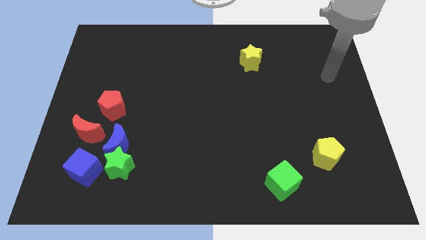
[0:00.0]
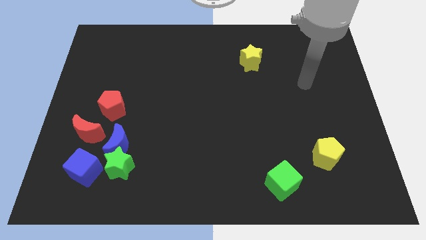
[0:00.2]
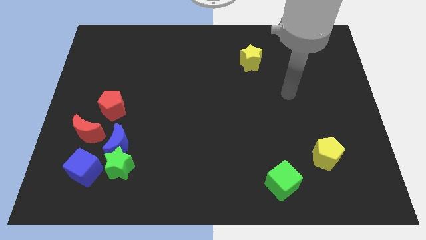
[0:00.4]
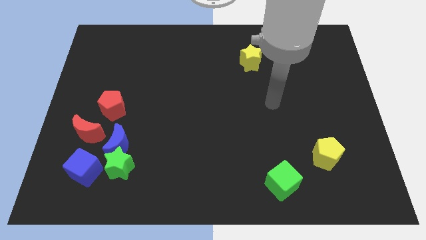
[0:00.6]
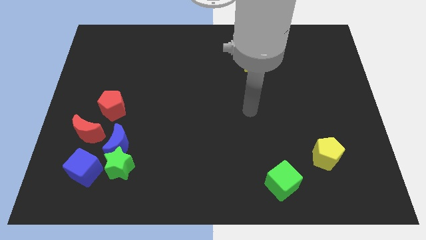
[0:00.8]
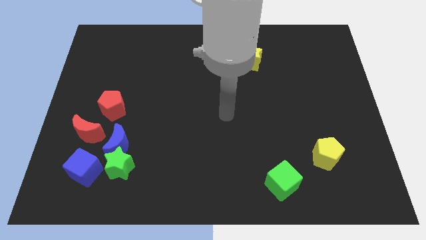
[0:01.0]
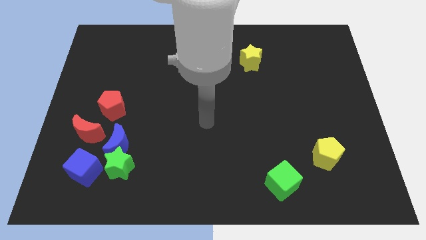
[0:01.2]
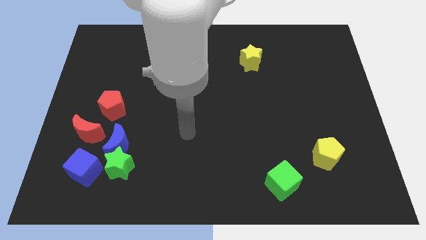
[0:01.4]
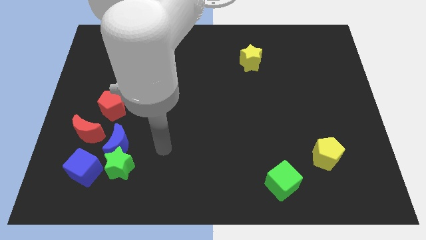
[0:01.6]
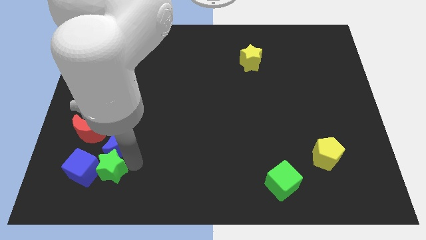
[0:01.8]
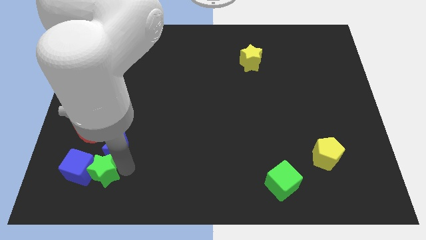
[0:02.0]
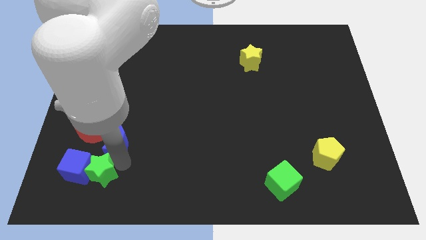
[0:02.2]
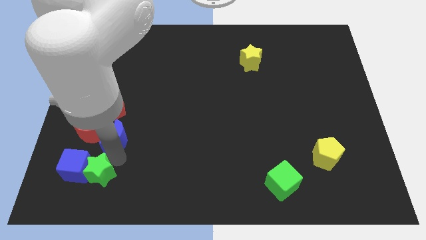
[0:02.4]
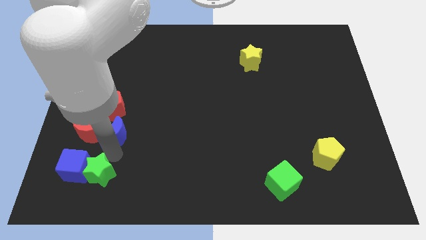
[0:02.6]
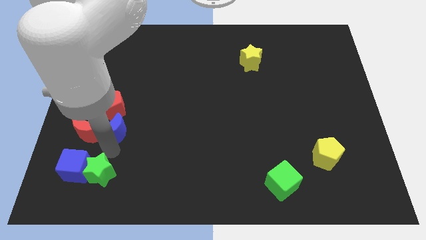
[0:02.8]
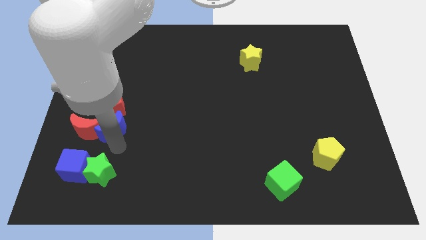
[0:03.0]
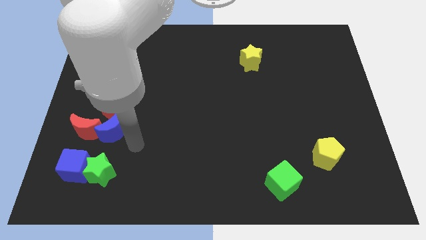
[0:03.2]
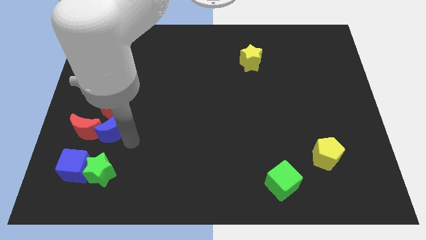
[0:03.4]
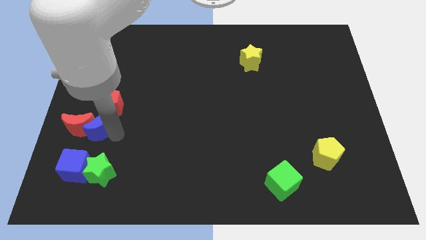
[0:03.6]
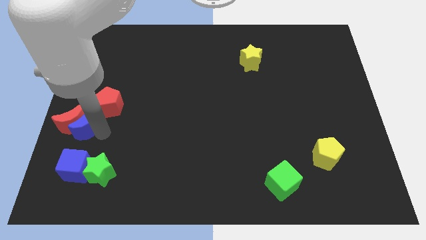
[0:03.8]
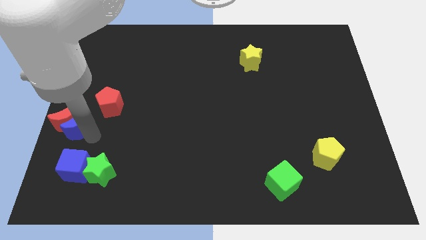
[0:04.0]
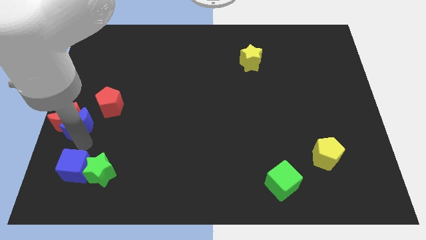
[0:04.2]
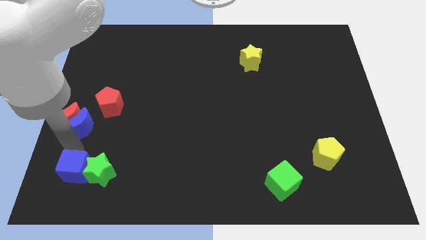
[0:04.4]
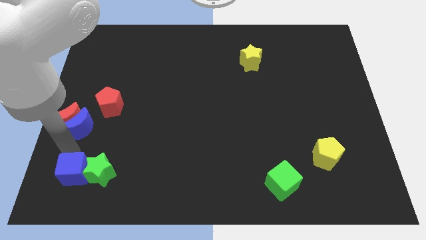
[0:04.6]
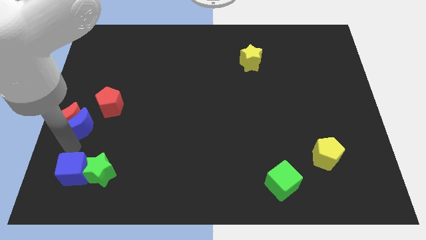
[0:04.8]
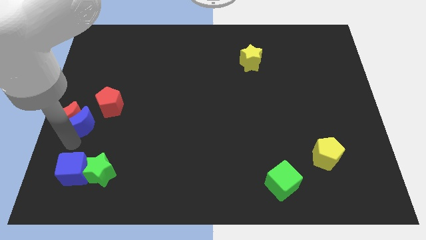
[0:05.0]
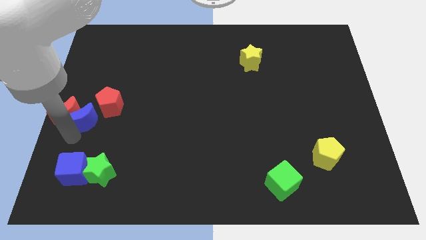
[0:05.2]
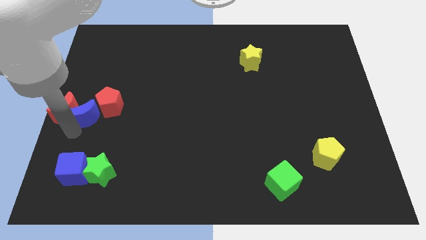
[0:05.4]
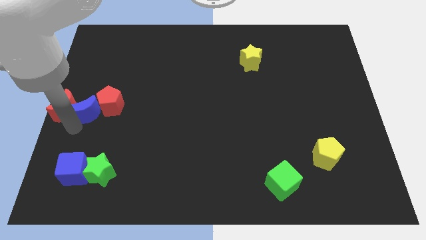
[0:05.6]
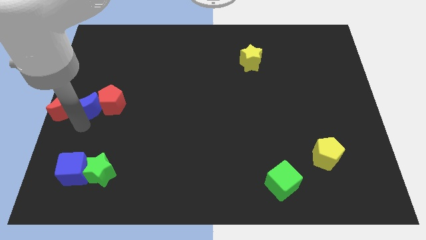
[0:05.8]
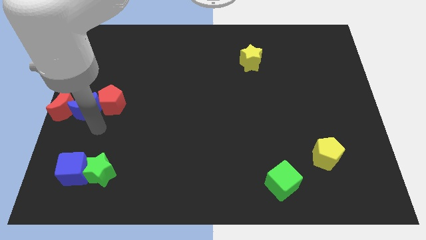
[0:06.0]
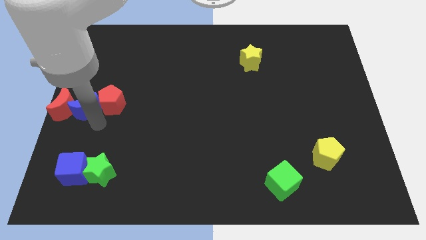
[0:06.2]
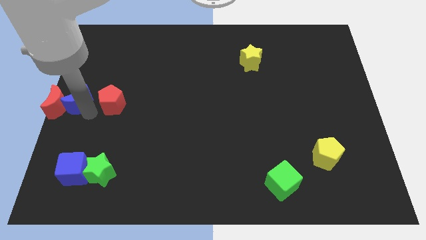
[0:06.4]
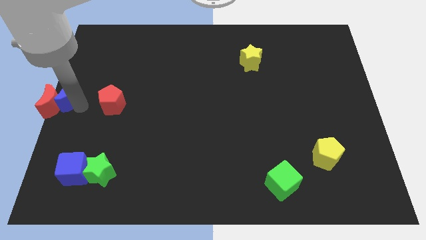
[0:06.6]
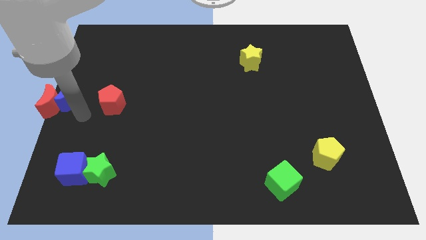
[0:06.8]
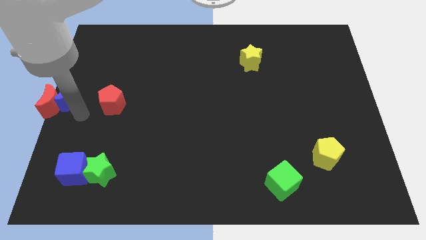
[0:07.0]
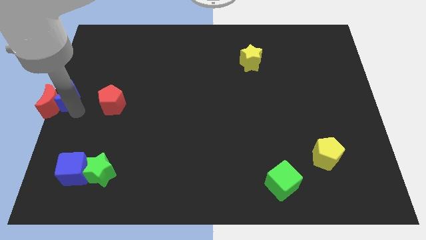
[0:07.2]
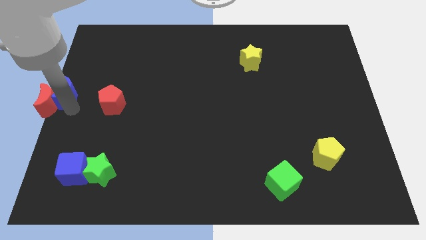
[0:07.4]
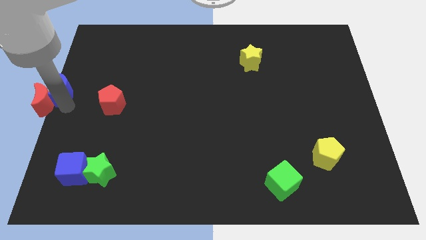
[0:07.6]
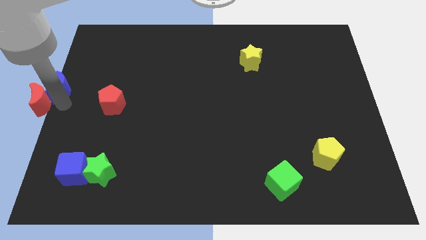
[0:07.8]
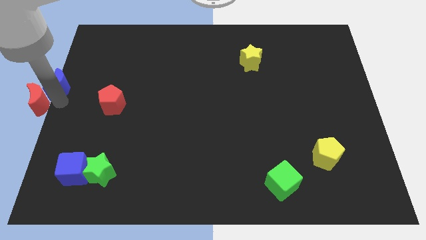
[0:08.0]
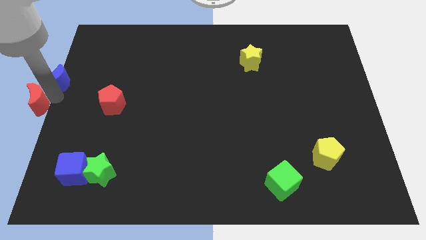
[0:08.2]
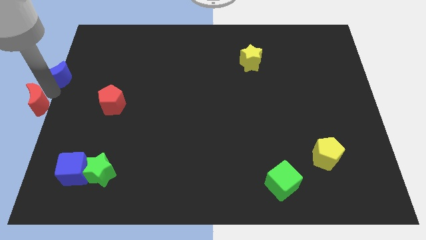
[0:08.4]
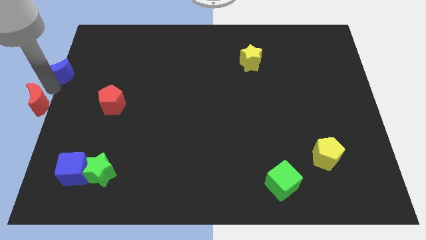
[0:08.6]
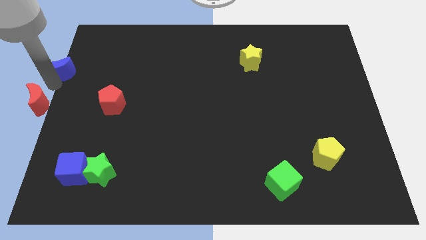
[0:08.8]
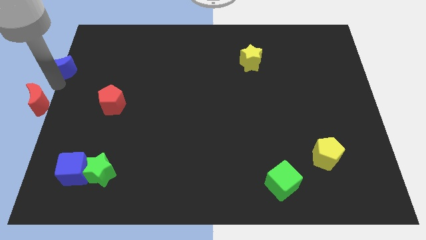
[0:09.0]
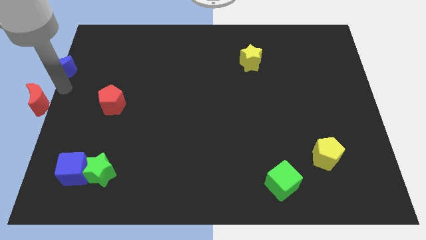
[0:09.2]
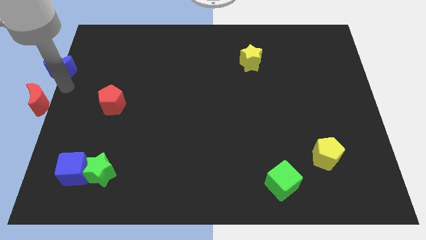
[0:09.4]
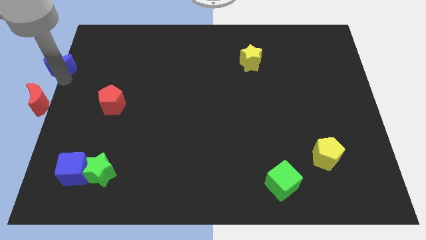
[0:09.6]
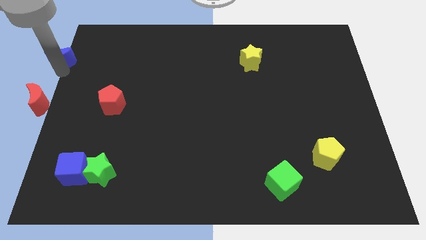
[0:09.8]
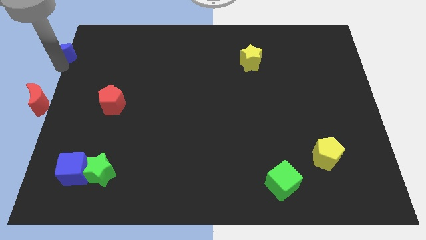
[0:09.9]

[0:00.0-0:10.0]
put the blue moon to the top left

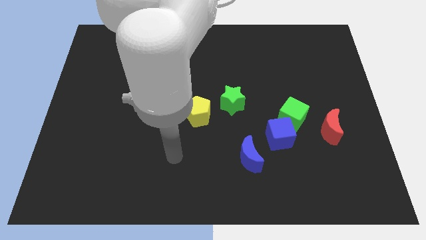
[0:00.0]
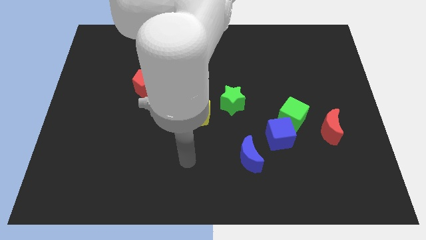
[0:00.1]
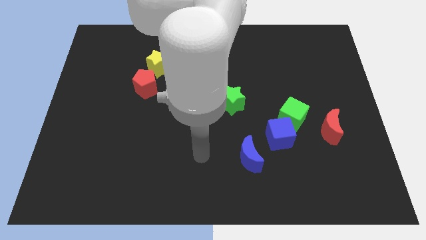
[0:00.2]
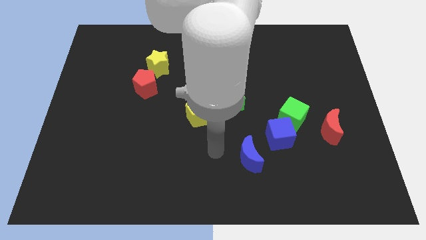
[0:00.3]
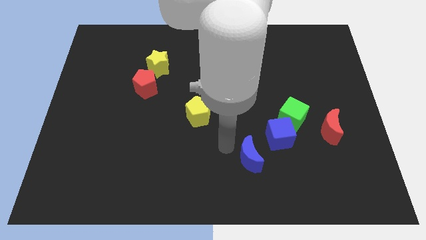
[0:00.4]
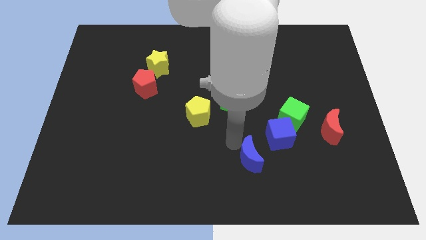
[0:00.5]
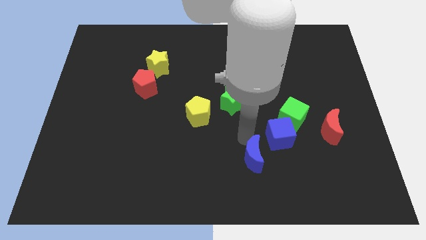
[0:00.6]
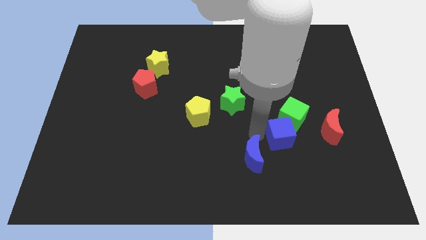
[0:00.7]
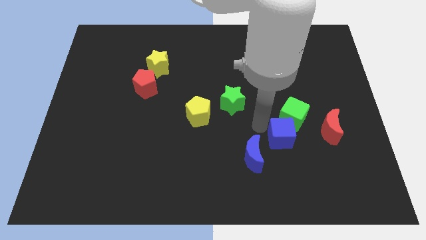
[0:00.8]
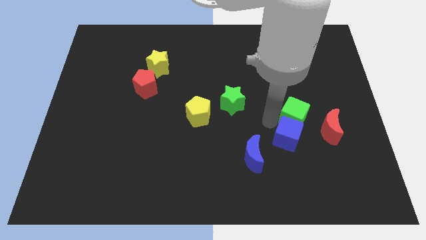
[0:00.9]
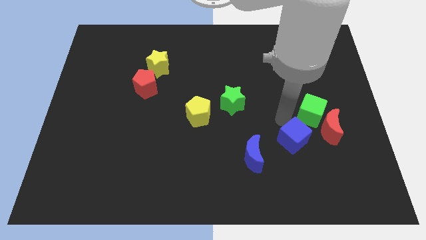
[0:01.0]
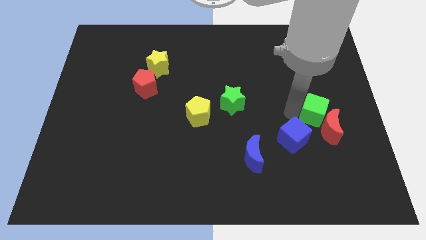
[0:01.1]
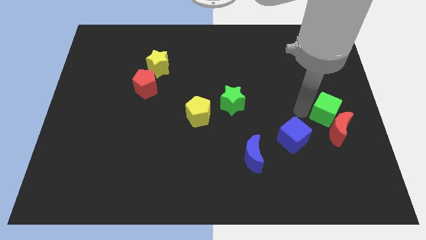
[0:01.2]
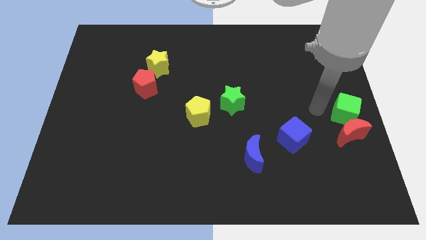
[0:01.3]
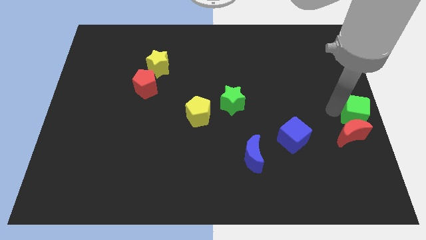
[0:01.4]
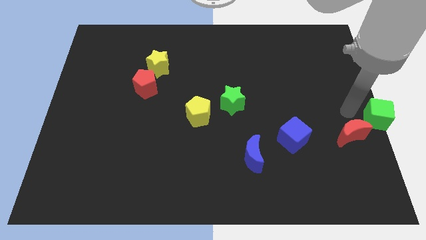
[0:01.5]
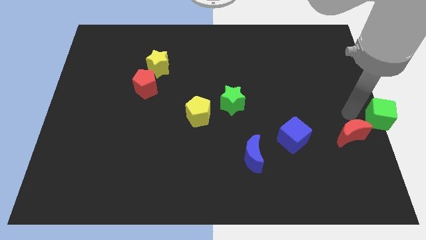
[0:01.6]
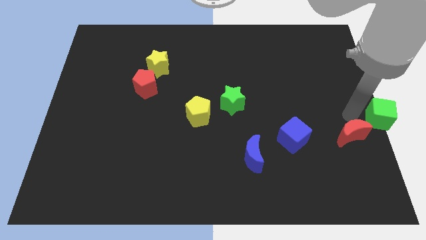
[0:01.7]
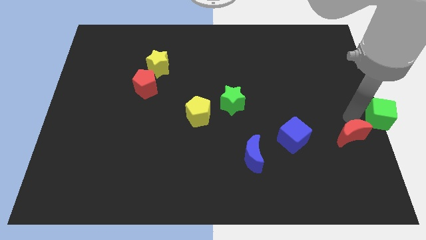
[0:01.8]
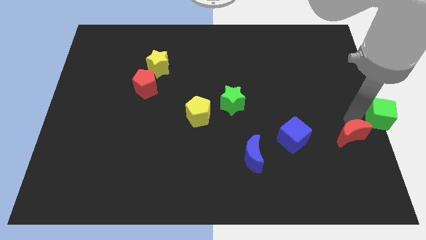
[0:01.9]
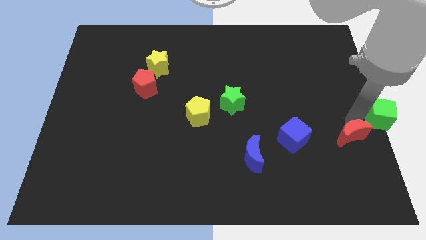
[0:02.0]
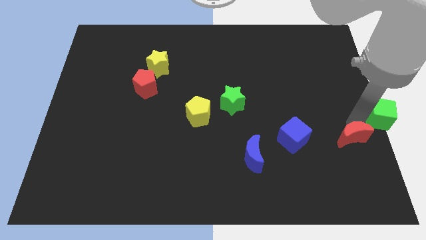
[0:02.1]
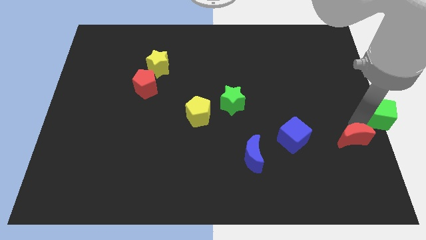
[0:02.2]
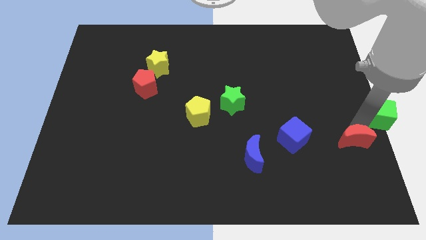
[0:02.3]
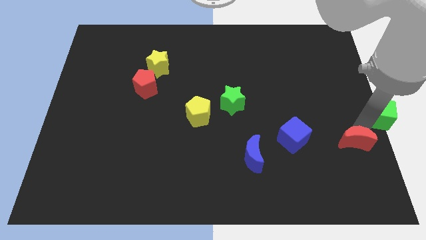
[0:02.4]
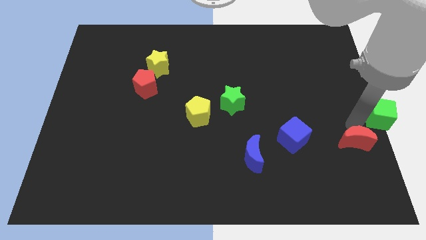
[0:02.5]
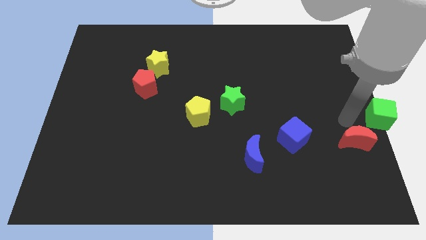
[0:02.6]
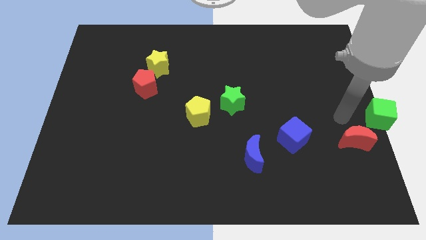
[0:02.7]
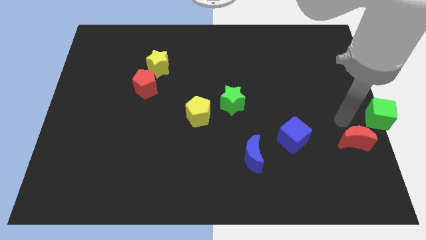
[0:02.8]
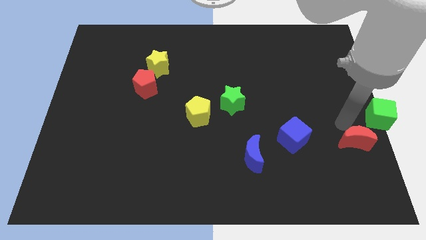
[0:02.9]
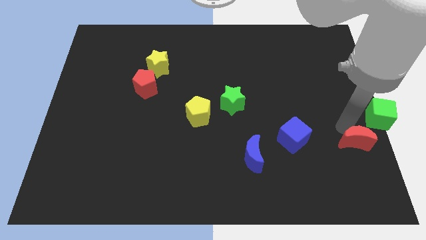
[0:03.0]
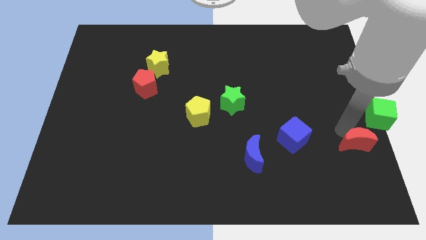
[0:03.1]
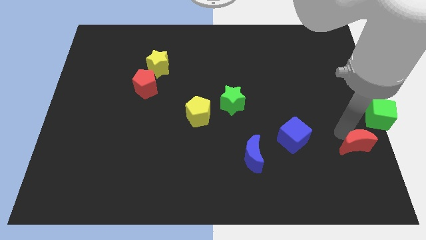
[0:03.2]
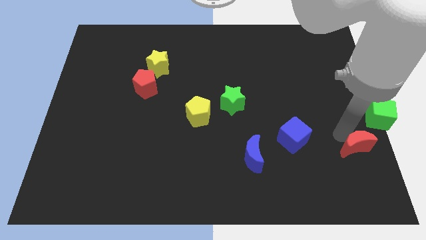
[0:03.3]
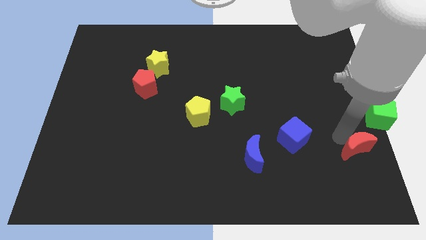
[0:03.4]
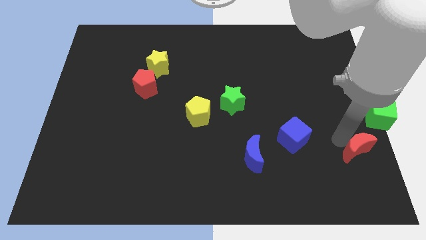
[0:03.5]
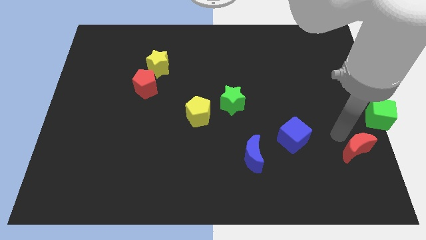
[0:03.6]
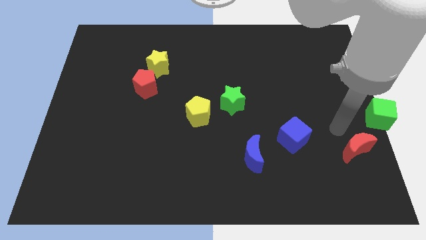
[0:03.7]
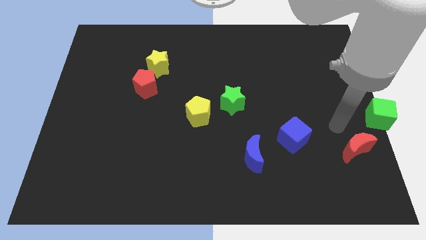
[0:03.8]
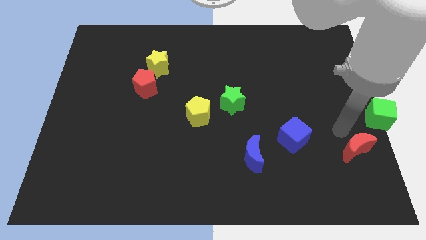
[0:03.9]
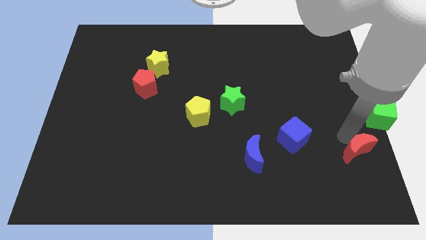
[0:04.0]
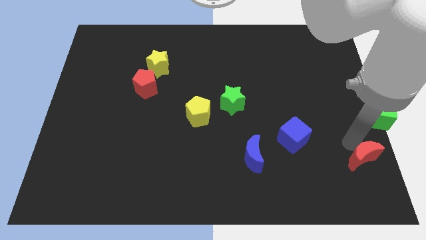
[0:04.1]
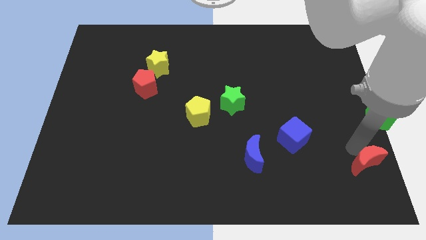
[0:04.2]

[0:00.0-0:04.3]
slide the red moon to the bottom right
